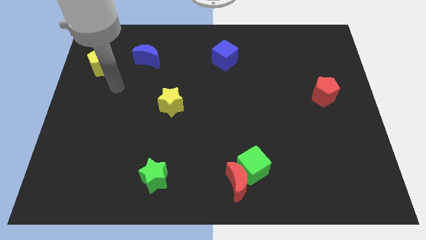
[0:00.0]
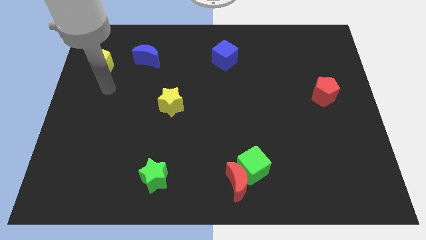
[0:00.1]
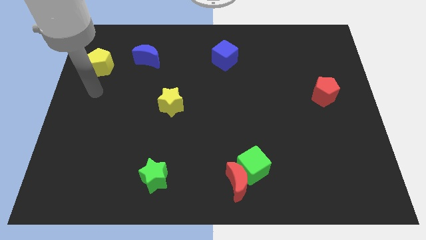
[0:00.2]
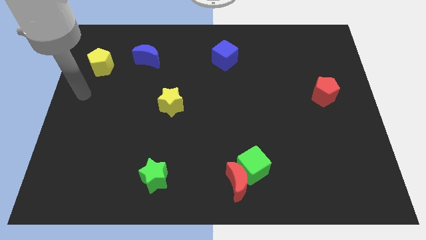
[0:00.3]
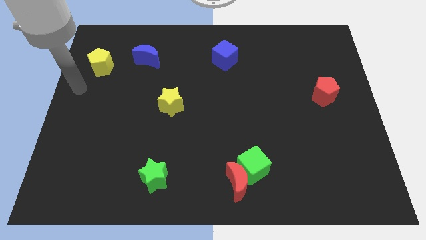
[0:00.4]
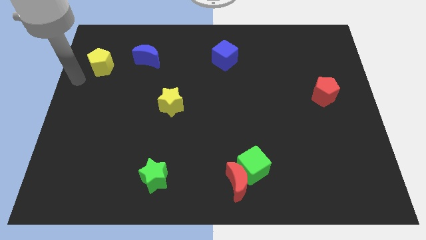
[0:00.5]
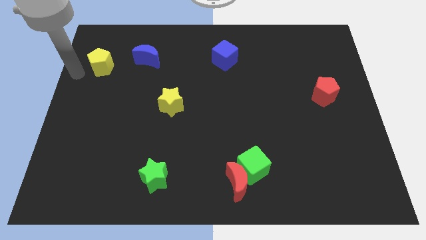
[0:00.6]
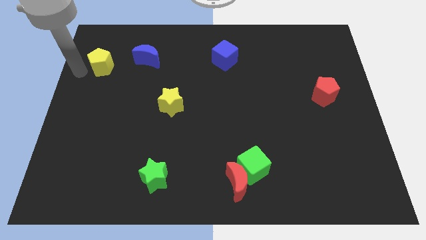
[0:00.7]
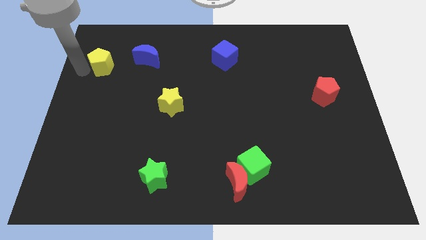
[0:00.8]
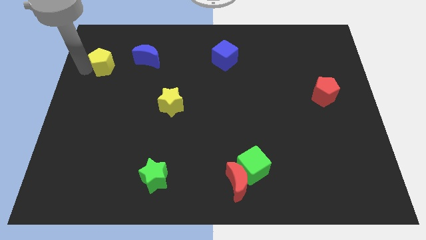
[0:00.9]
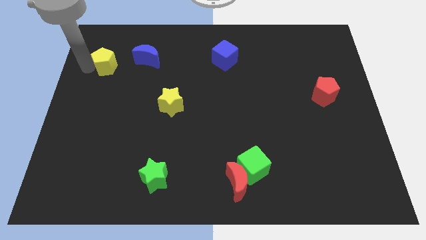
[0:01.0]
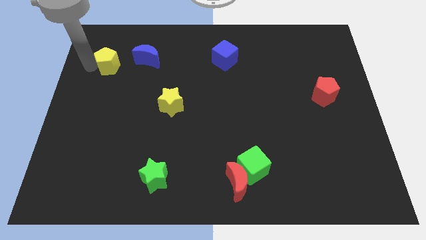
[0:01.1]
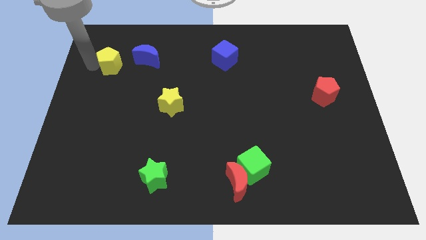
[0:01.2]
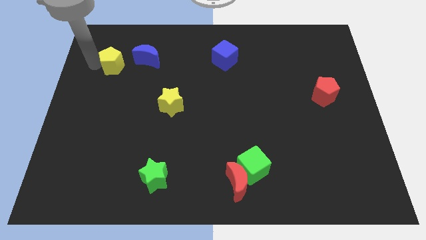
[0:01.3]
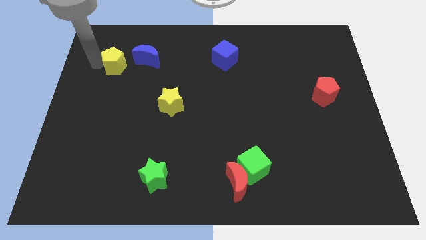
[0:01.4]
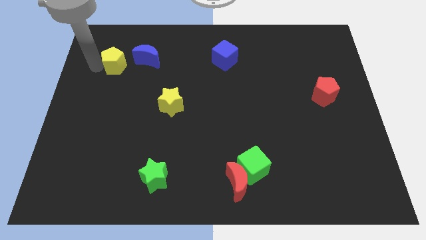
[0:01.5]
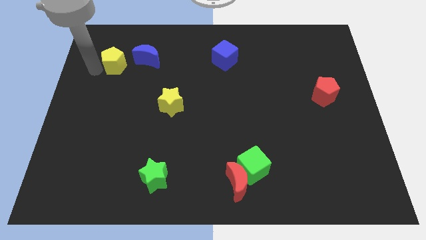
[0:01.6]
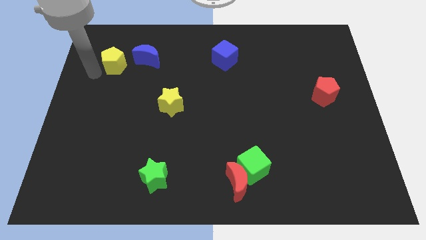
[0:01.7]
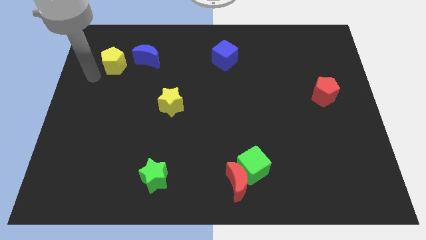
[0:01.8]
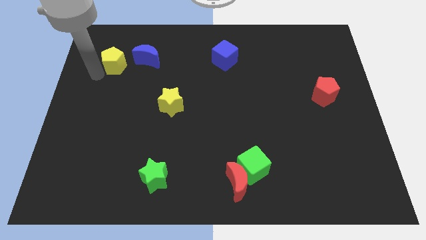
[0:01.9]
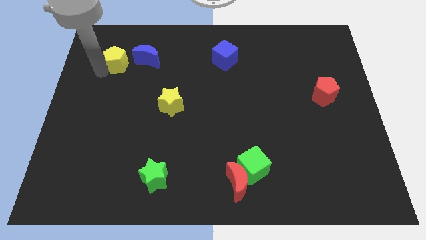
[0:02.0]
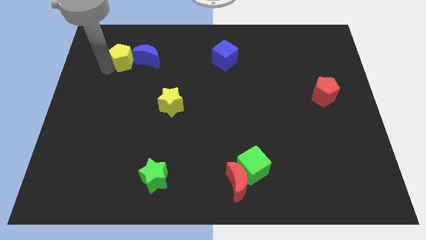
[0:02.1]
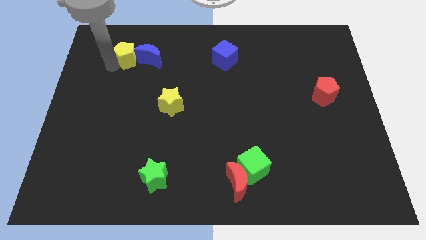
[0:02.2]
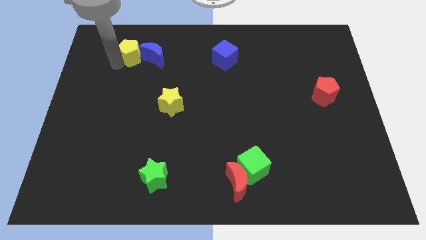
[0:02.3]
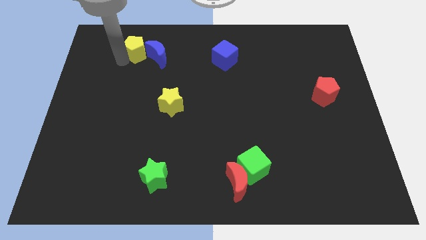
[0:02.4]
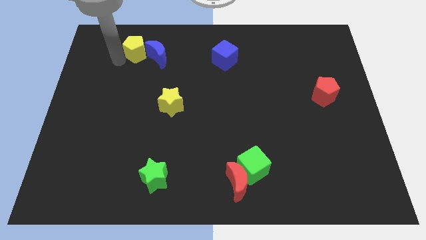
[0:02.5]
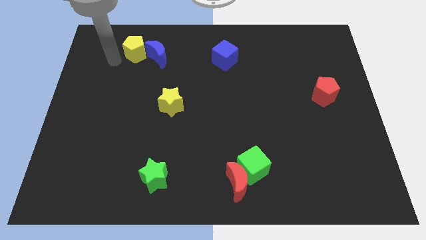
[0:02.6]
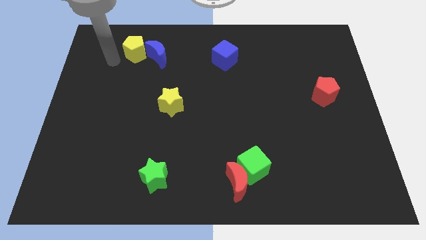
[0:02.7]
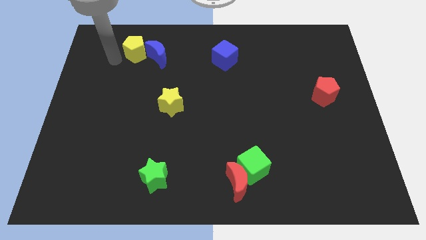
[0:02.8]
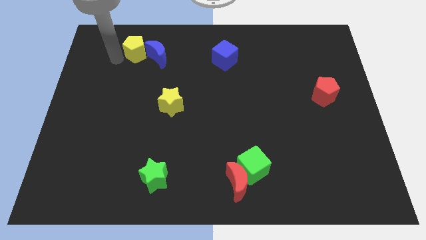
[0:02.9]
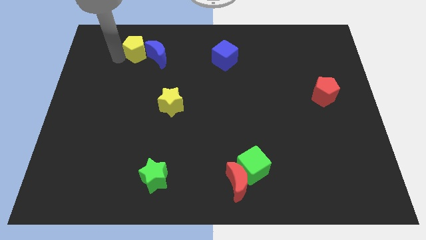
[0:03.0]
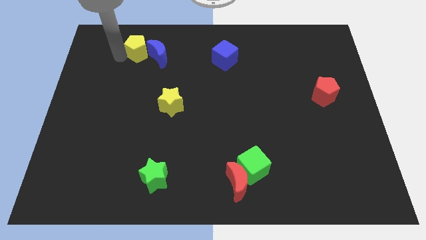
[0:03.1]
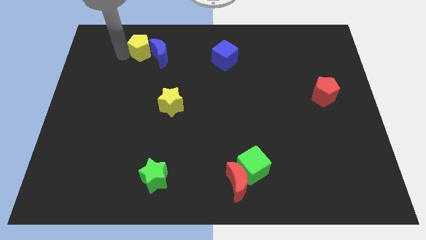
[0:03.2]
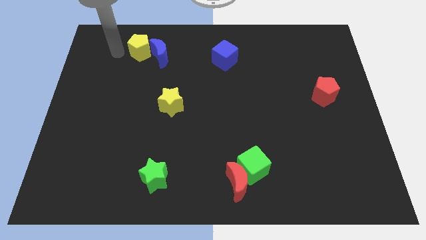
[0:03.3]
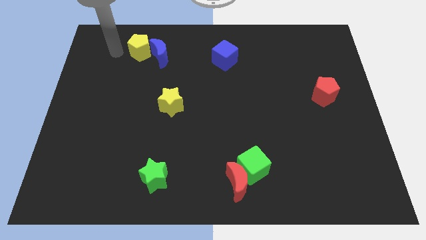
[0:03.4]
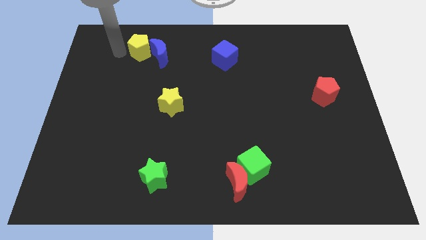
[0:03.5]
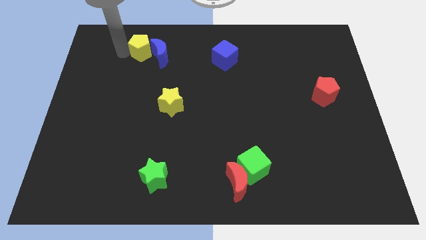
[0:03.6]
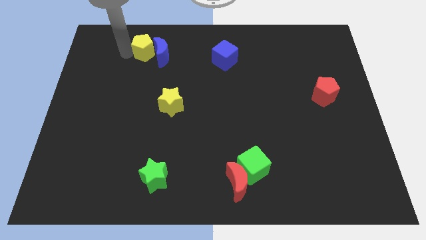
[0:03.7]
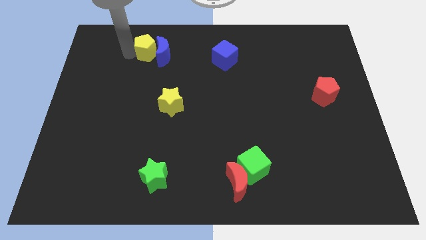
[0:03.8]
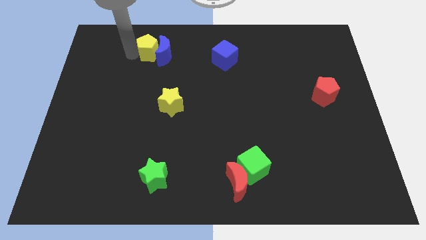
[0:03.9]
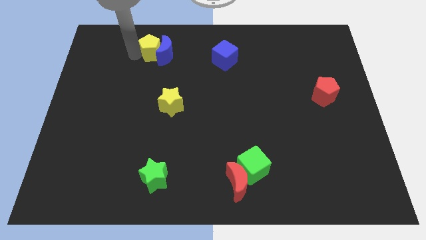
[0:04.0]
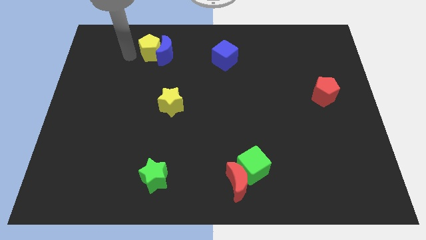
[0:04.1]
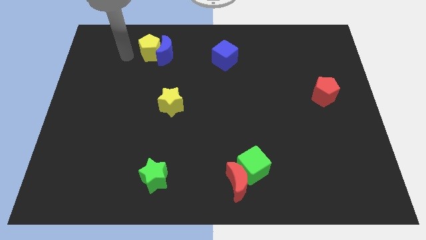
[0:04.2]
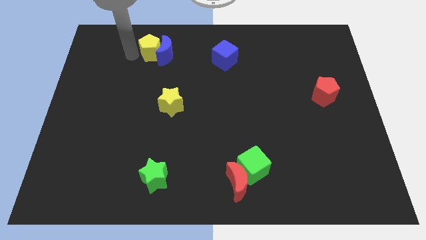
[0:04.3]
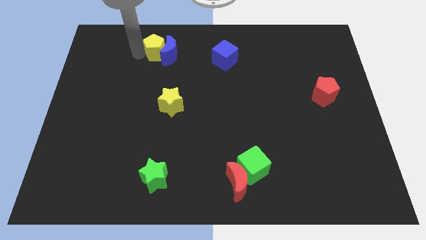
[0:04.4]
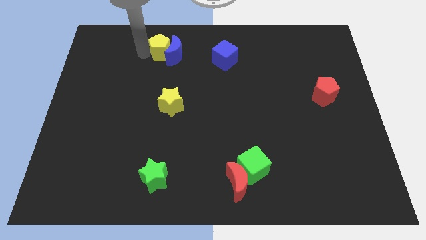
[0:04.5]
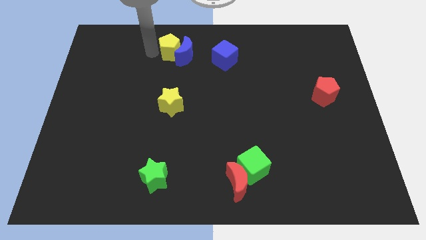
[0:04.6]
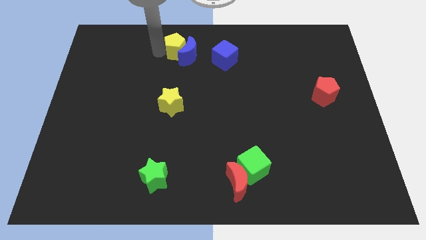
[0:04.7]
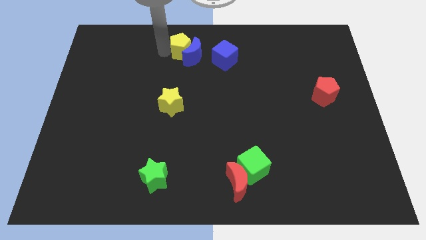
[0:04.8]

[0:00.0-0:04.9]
push the yellow pentagon to the top
